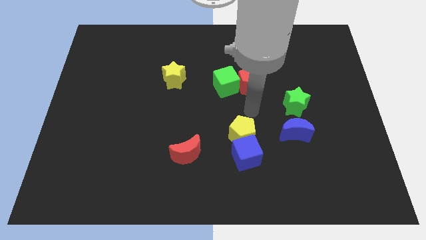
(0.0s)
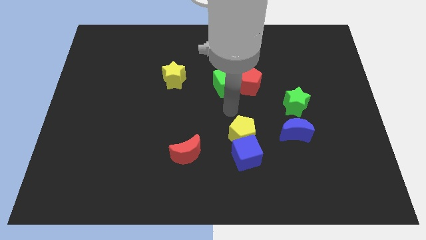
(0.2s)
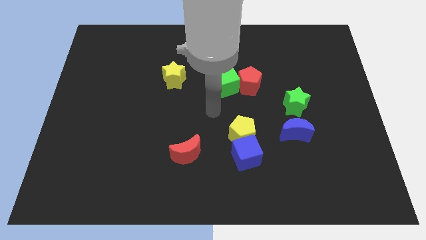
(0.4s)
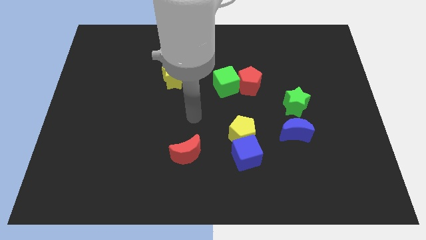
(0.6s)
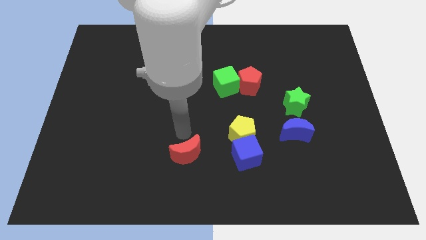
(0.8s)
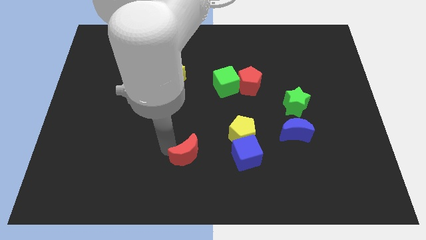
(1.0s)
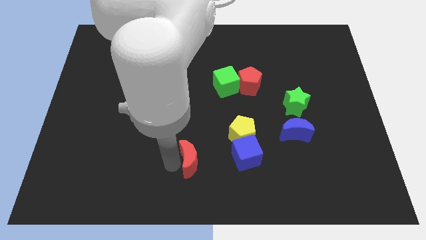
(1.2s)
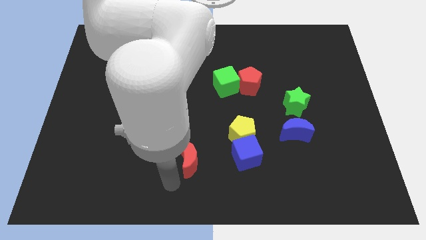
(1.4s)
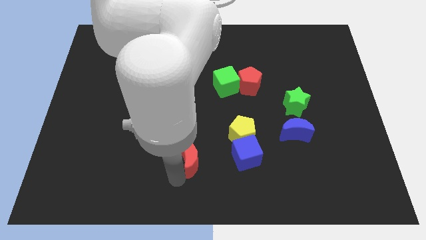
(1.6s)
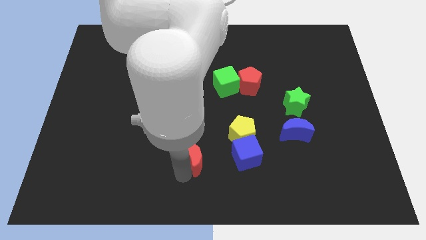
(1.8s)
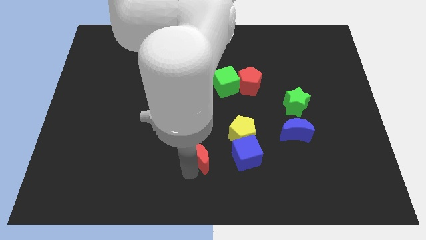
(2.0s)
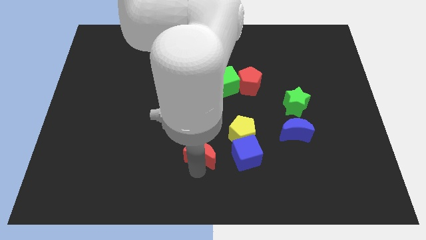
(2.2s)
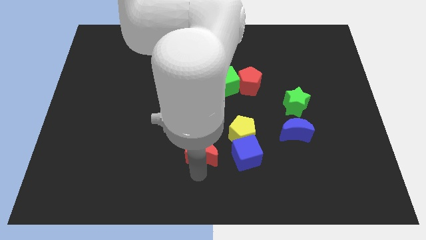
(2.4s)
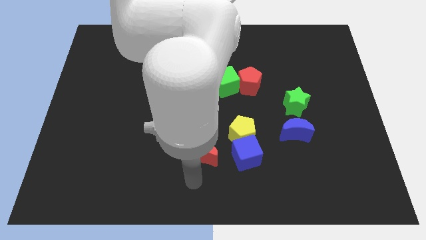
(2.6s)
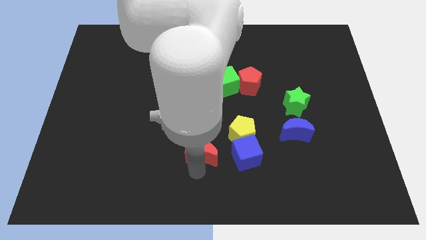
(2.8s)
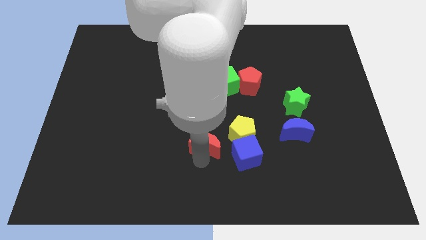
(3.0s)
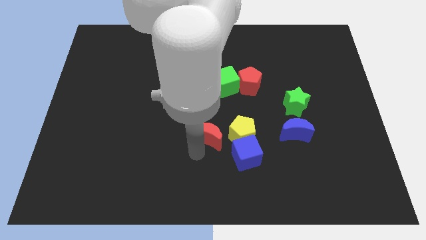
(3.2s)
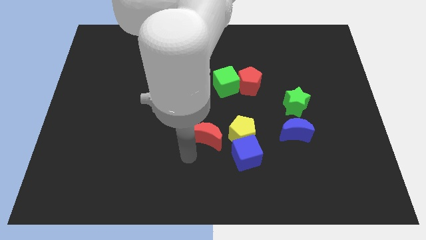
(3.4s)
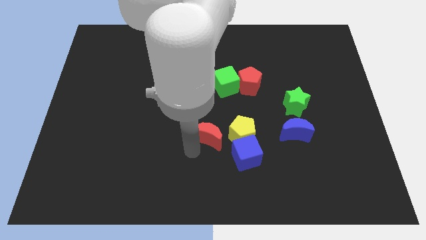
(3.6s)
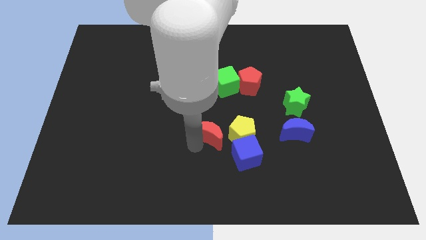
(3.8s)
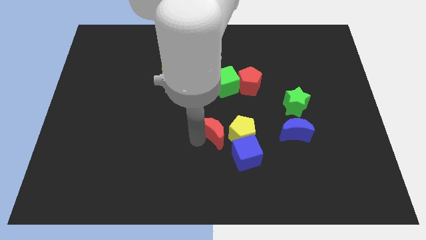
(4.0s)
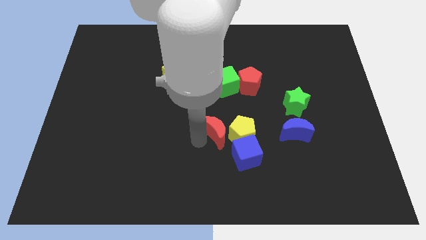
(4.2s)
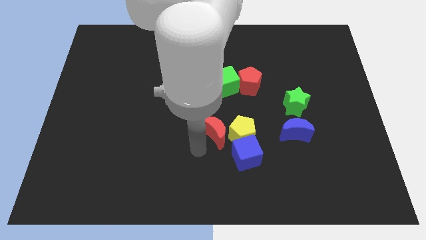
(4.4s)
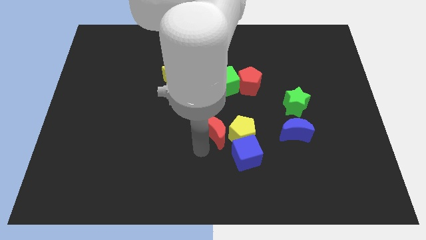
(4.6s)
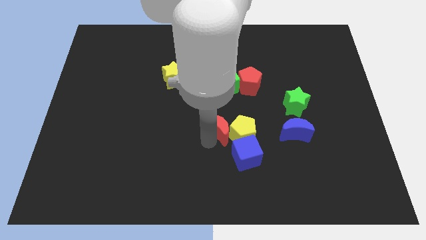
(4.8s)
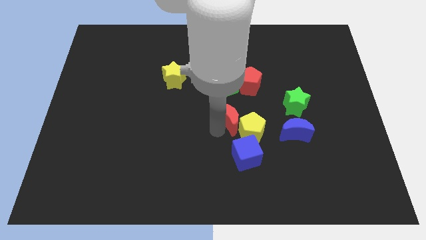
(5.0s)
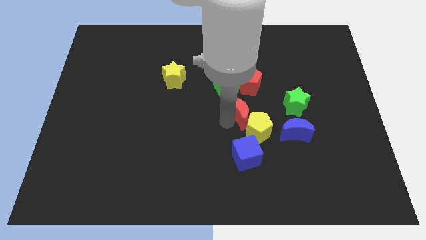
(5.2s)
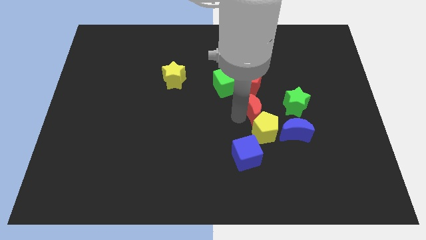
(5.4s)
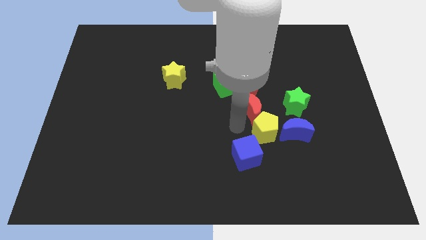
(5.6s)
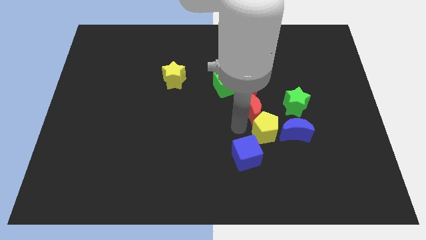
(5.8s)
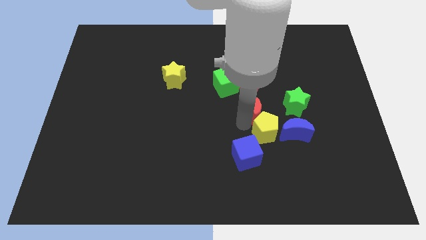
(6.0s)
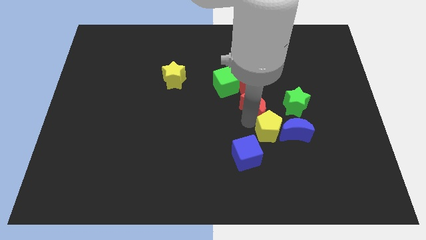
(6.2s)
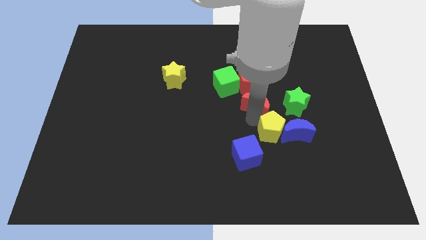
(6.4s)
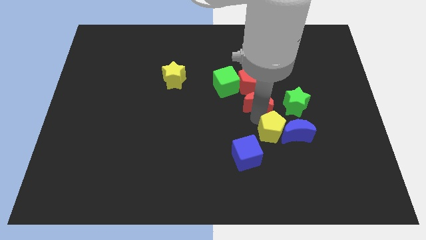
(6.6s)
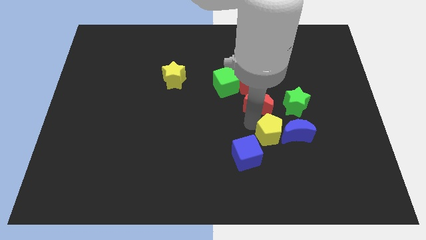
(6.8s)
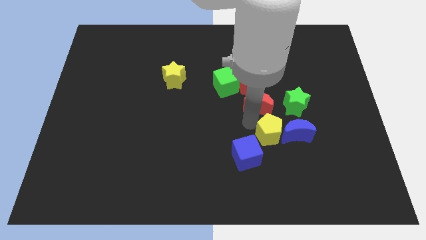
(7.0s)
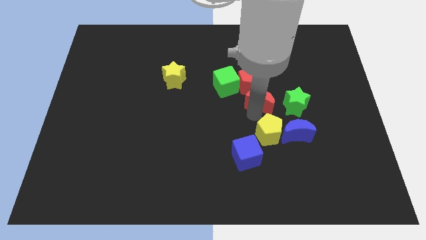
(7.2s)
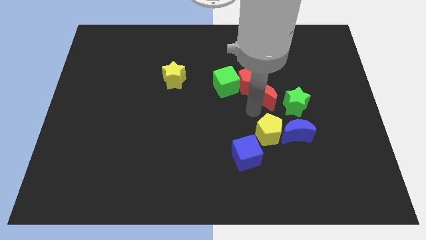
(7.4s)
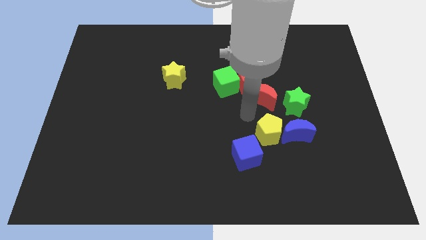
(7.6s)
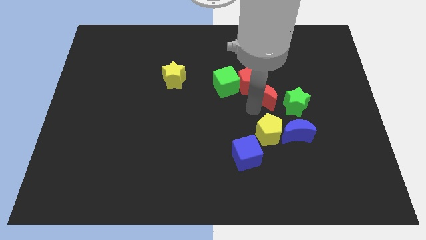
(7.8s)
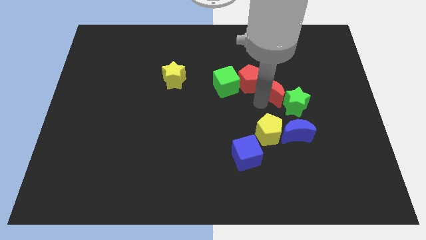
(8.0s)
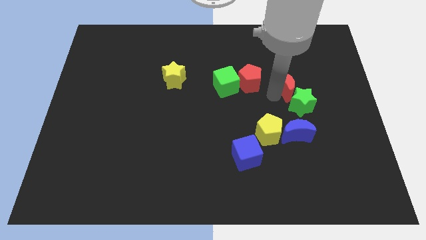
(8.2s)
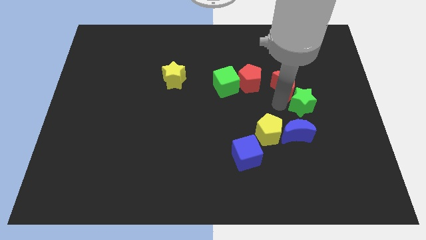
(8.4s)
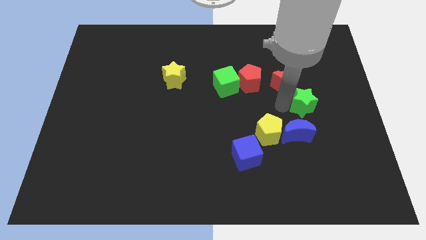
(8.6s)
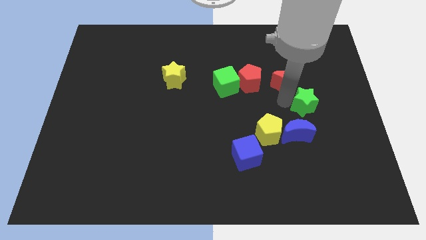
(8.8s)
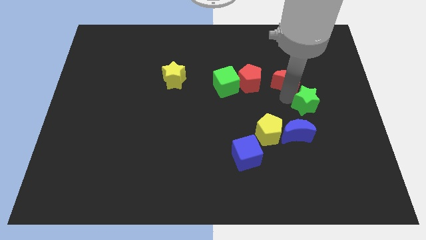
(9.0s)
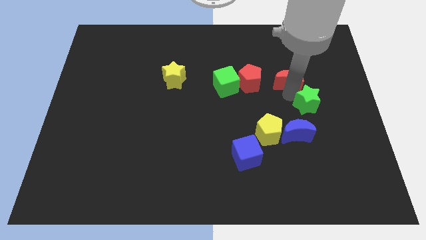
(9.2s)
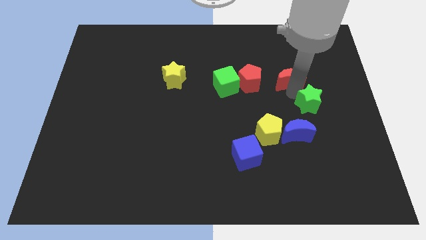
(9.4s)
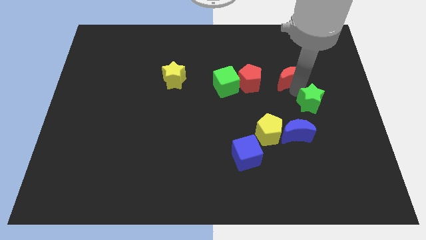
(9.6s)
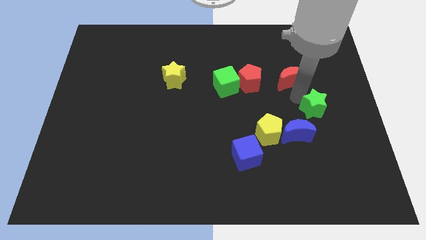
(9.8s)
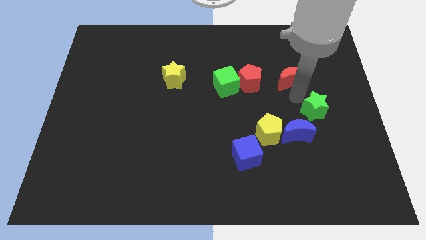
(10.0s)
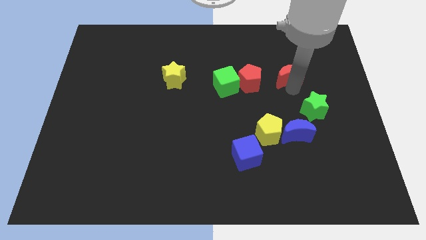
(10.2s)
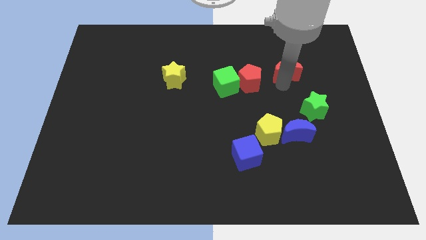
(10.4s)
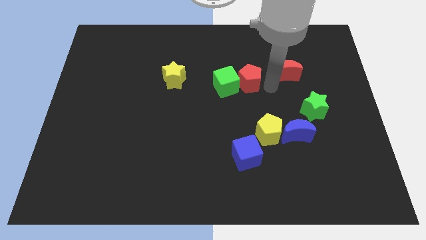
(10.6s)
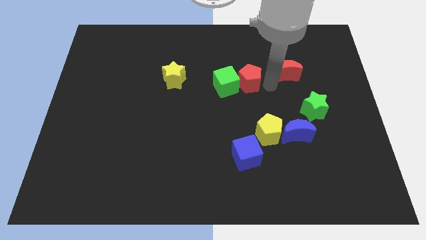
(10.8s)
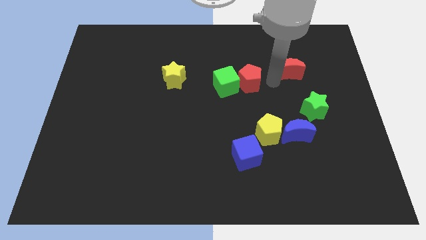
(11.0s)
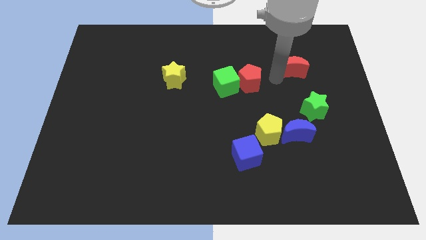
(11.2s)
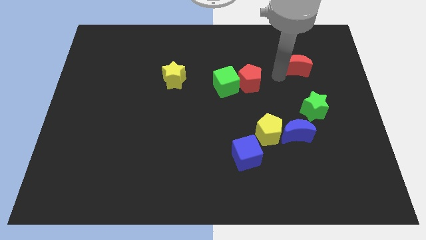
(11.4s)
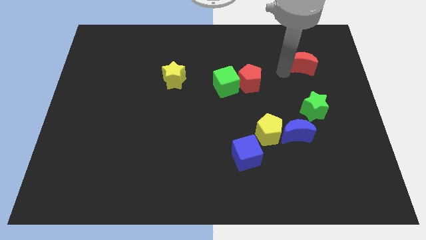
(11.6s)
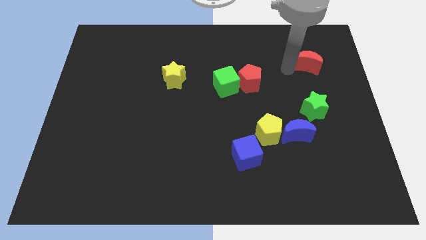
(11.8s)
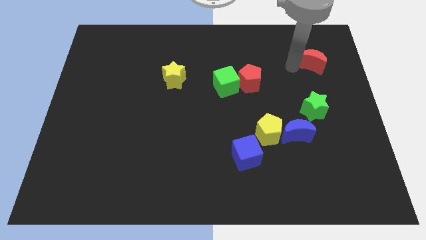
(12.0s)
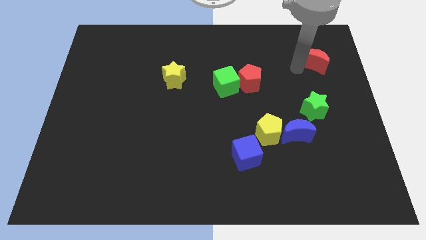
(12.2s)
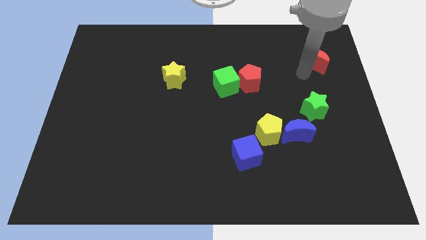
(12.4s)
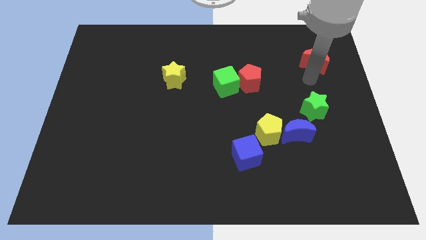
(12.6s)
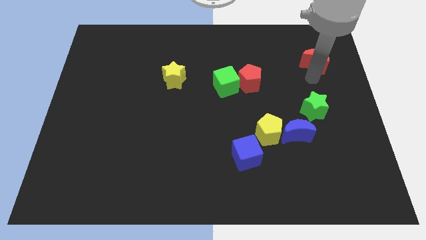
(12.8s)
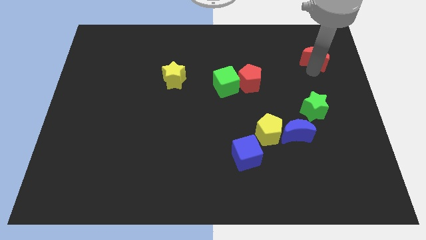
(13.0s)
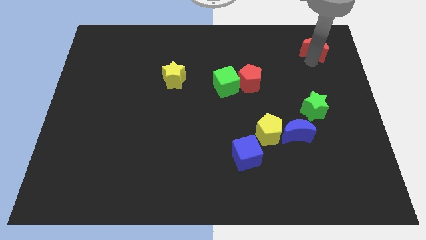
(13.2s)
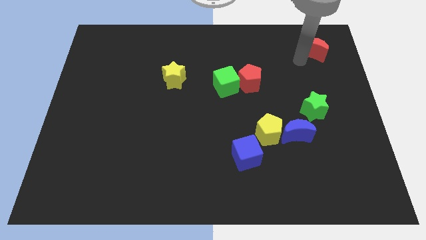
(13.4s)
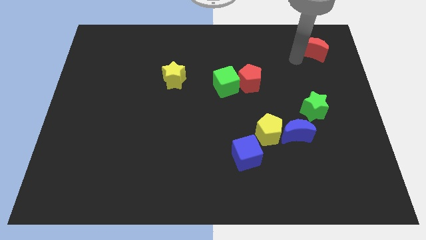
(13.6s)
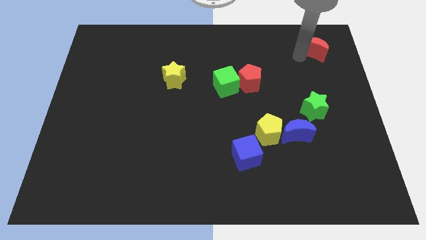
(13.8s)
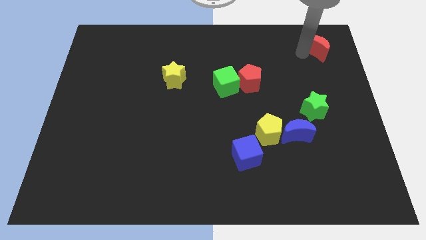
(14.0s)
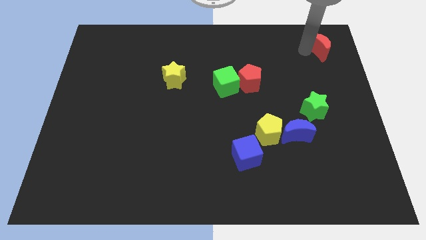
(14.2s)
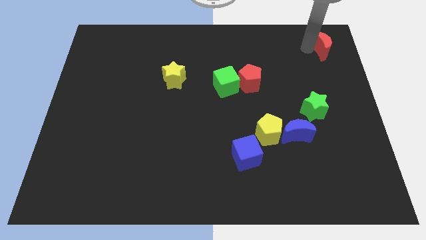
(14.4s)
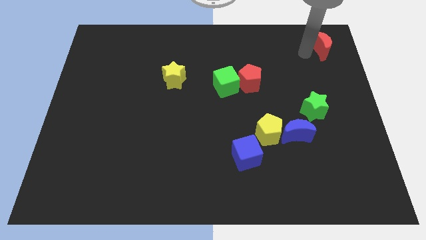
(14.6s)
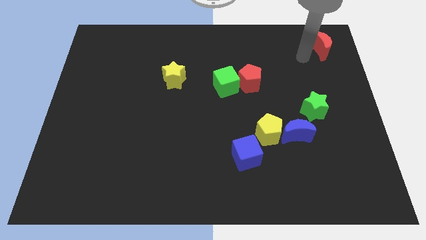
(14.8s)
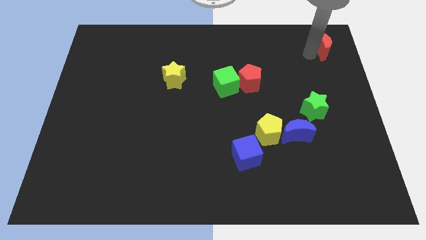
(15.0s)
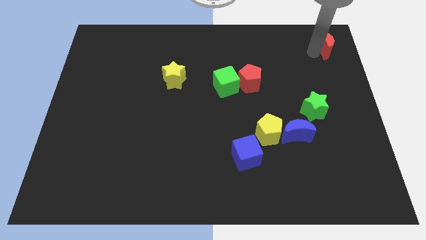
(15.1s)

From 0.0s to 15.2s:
push the red moon to the top right
